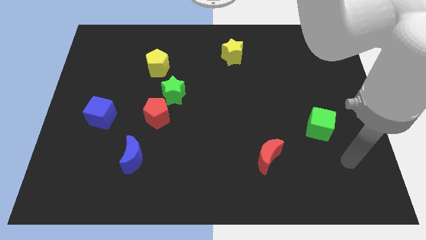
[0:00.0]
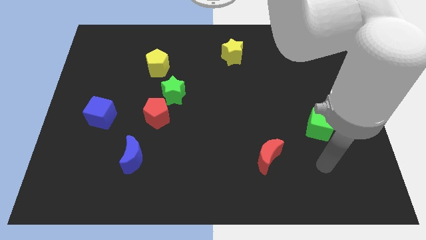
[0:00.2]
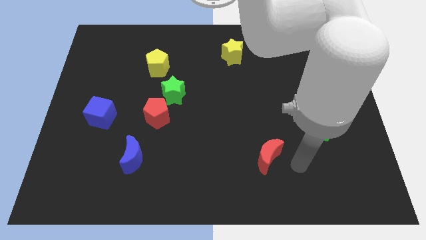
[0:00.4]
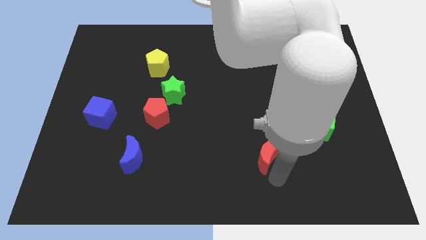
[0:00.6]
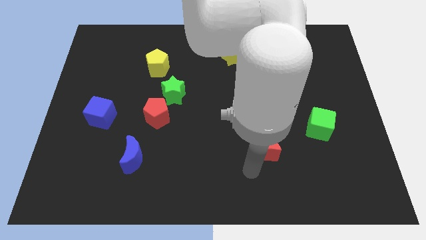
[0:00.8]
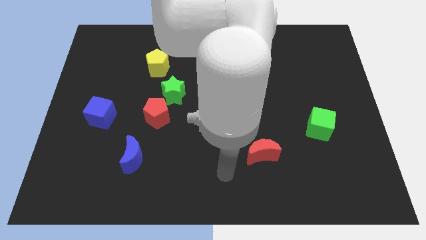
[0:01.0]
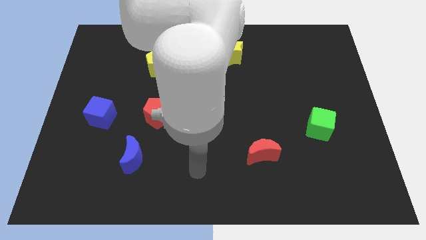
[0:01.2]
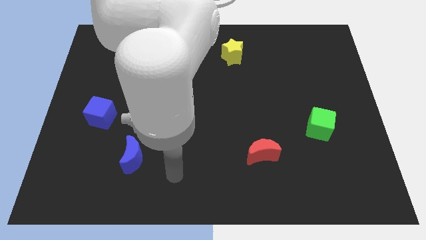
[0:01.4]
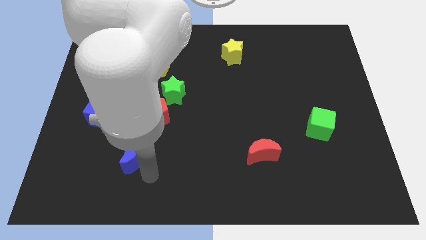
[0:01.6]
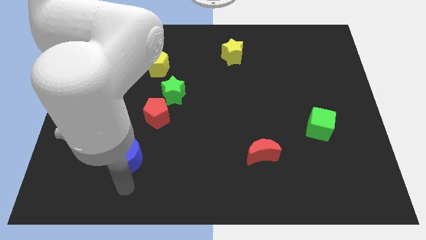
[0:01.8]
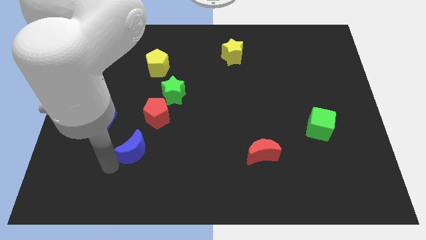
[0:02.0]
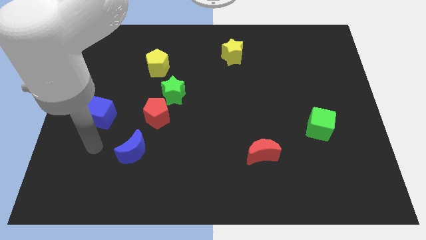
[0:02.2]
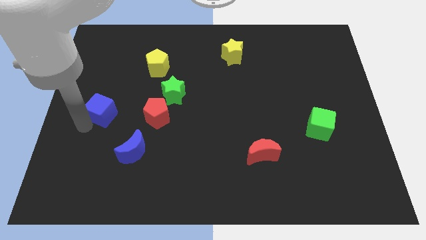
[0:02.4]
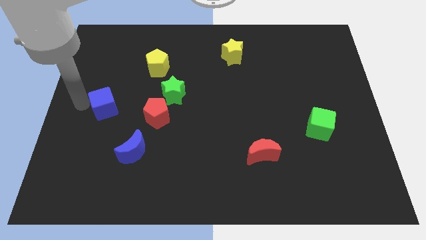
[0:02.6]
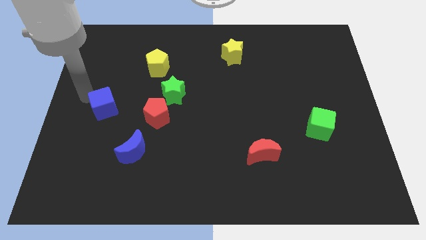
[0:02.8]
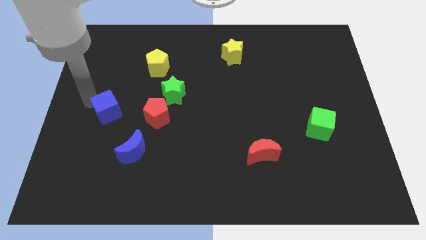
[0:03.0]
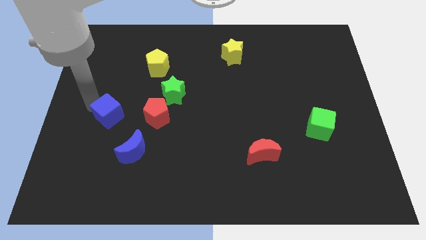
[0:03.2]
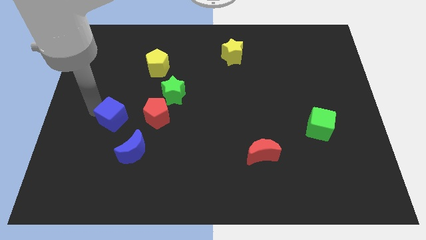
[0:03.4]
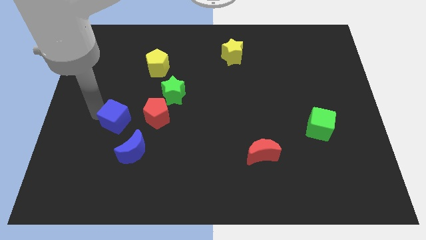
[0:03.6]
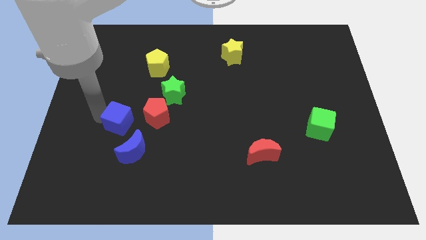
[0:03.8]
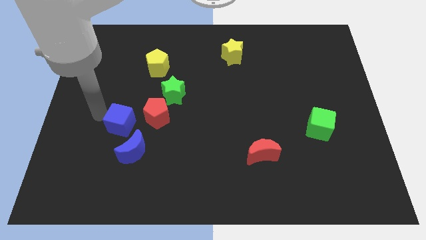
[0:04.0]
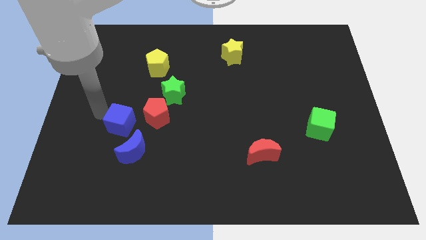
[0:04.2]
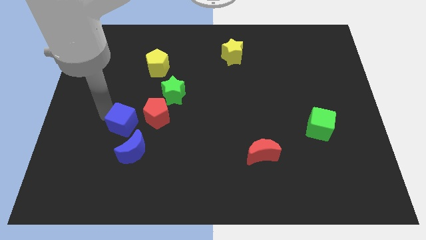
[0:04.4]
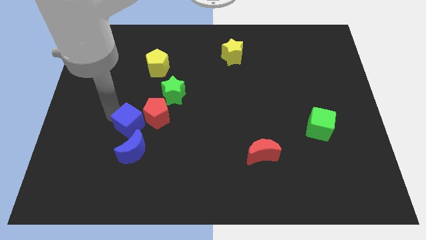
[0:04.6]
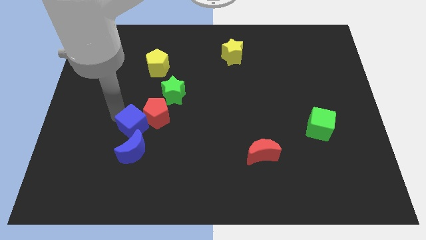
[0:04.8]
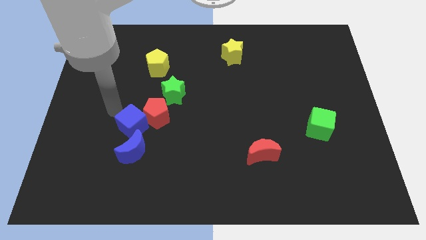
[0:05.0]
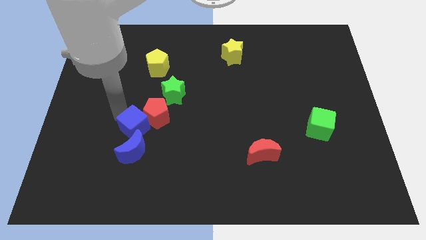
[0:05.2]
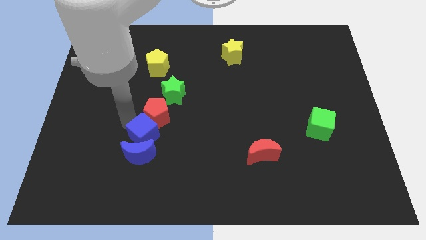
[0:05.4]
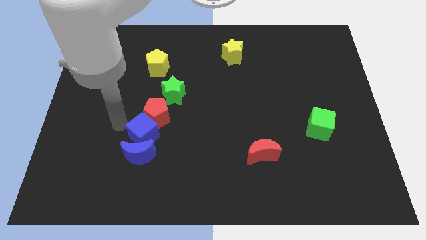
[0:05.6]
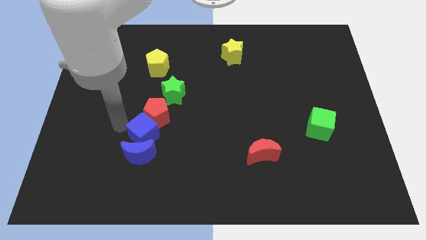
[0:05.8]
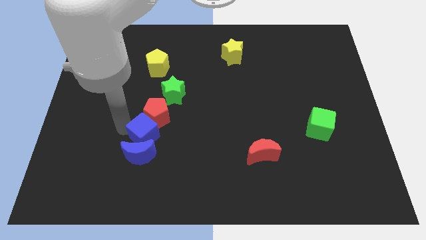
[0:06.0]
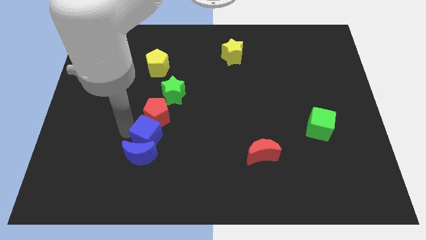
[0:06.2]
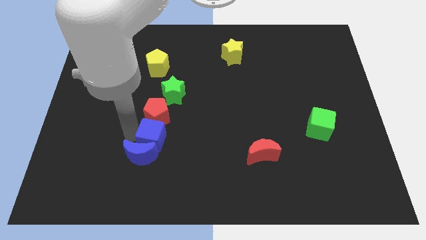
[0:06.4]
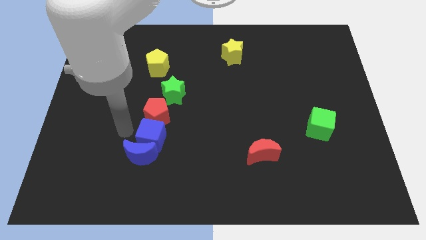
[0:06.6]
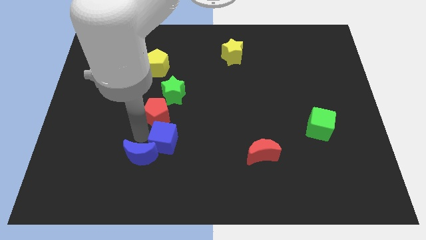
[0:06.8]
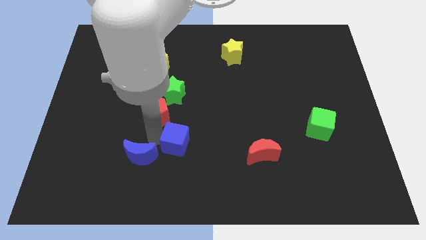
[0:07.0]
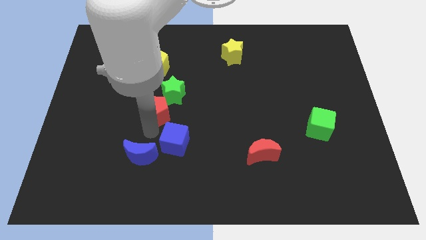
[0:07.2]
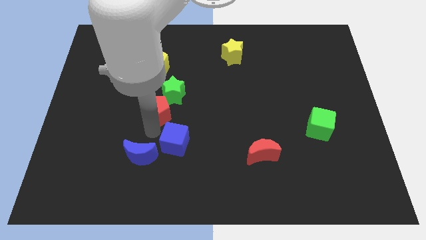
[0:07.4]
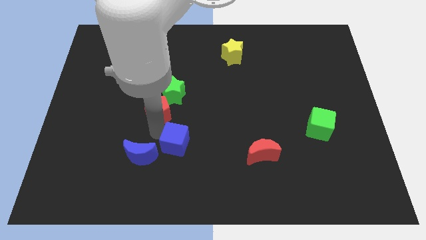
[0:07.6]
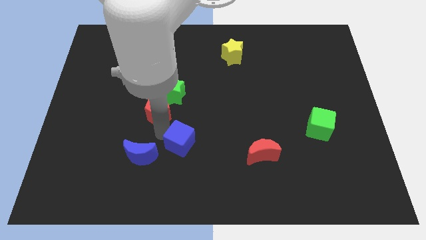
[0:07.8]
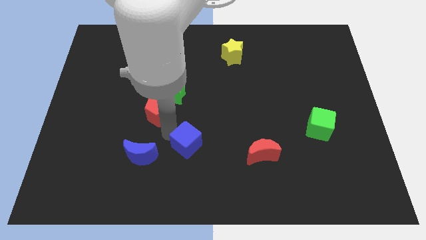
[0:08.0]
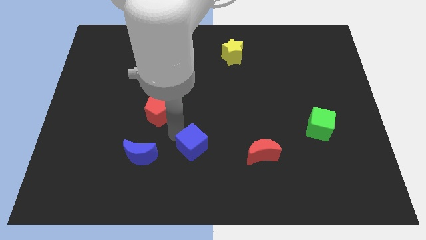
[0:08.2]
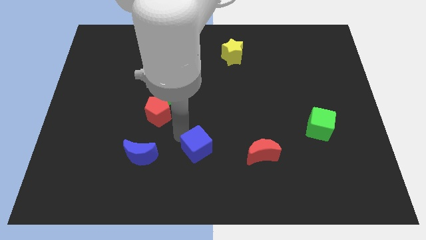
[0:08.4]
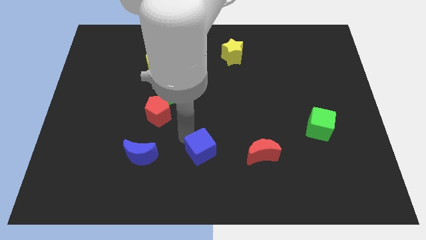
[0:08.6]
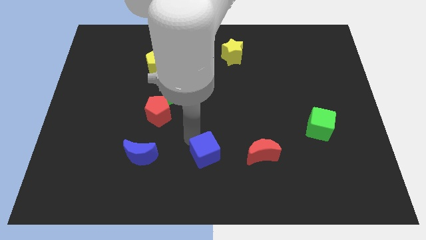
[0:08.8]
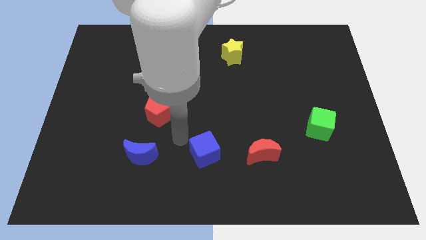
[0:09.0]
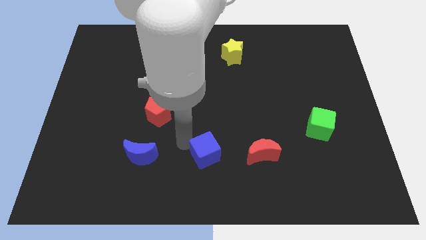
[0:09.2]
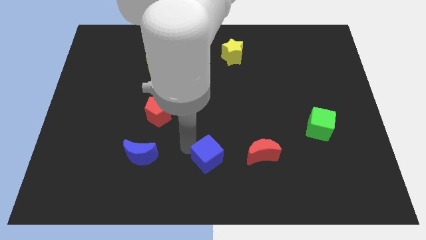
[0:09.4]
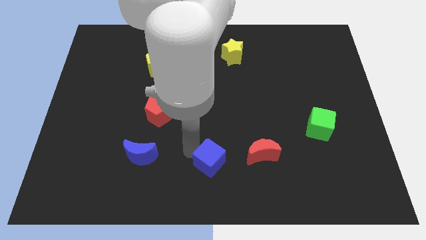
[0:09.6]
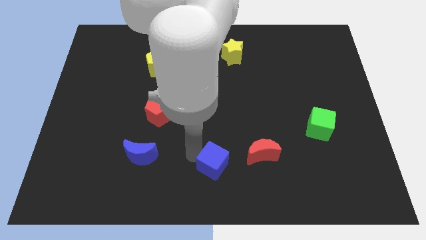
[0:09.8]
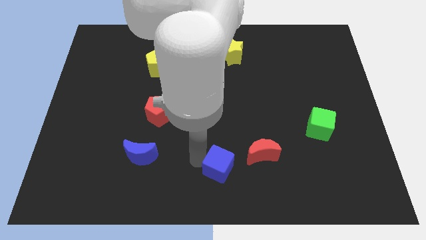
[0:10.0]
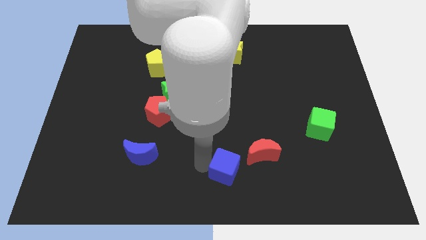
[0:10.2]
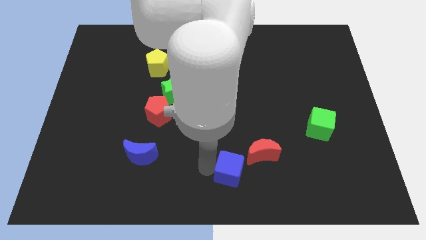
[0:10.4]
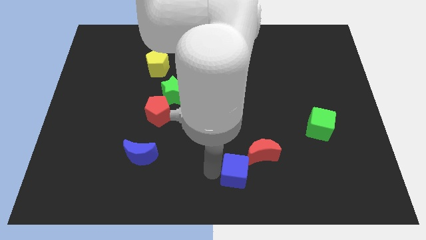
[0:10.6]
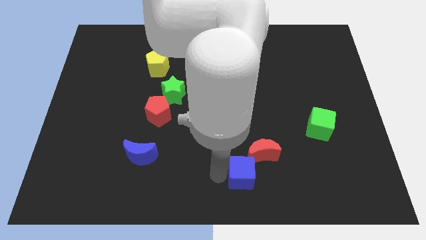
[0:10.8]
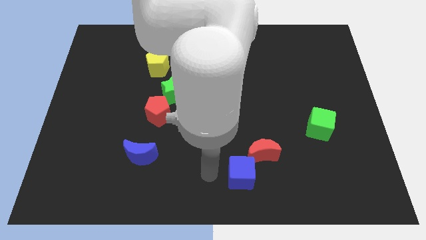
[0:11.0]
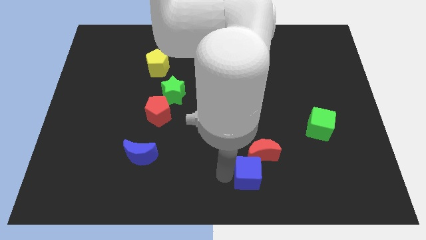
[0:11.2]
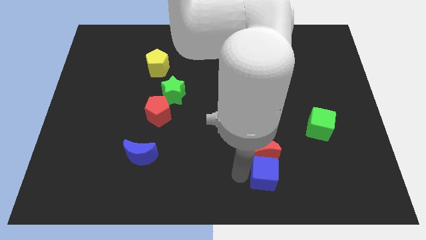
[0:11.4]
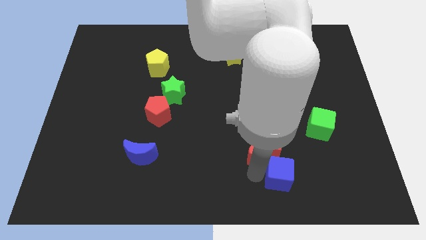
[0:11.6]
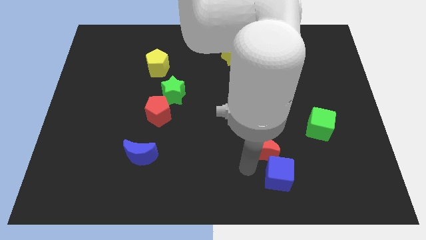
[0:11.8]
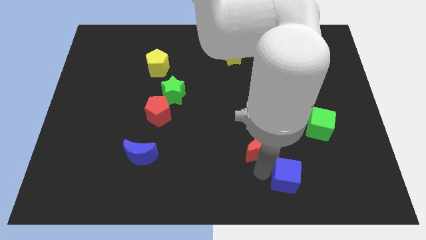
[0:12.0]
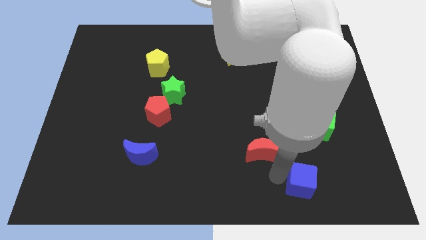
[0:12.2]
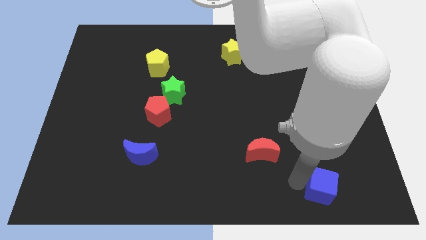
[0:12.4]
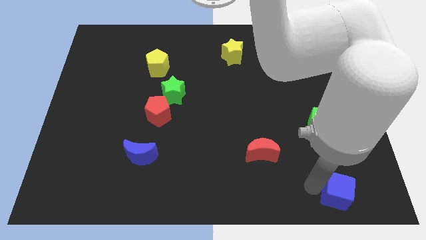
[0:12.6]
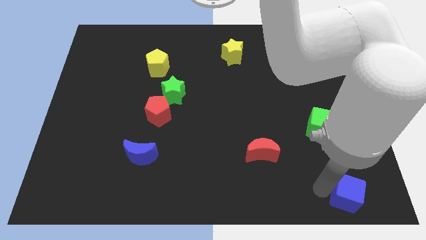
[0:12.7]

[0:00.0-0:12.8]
move the blue cube to the bottom right corner

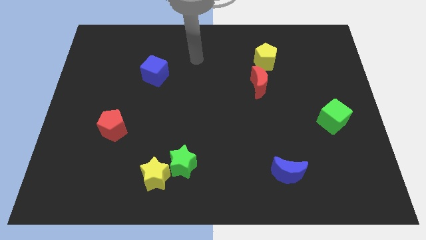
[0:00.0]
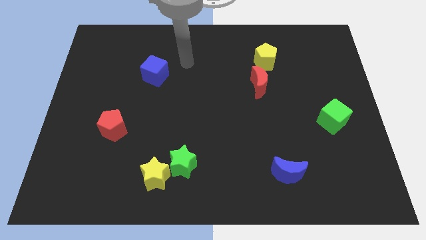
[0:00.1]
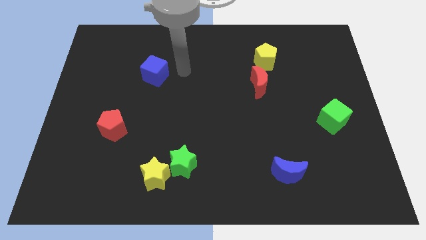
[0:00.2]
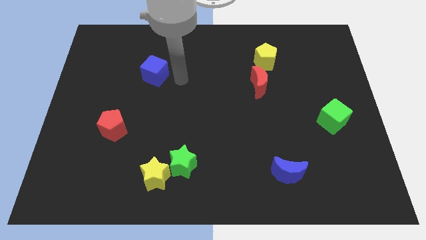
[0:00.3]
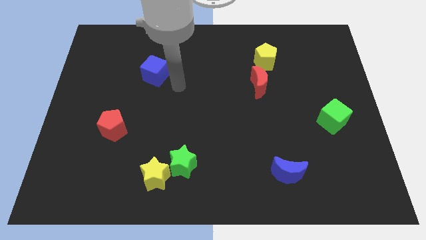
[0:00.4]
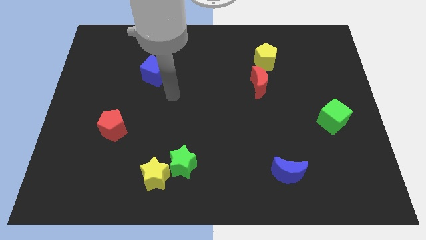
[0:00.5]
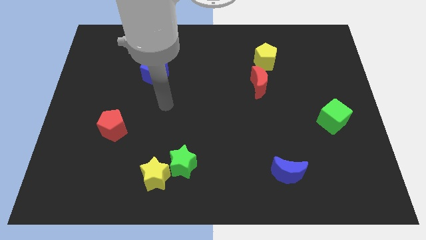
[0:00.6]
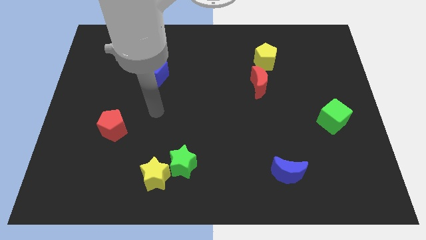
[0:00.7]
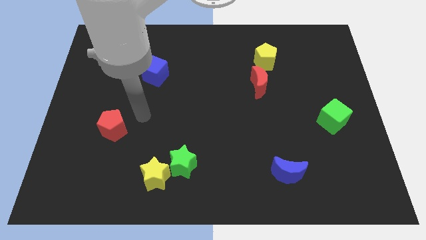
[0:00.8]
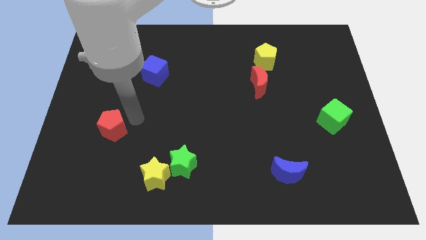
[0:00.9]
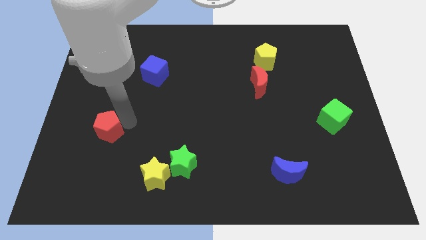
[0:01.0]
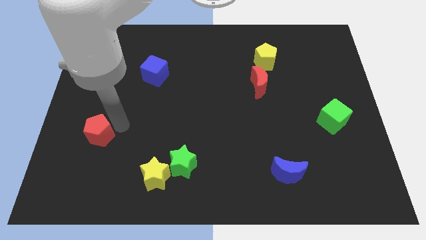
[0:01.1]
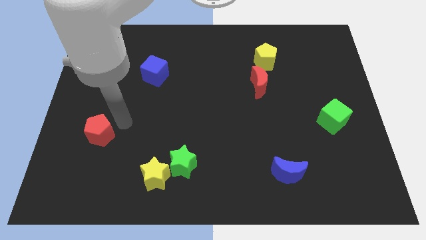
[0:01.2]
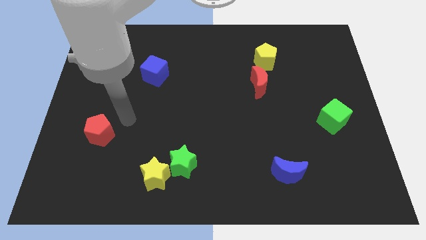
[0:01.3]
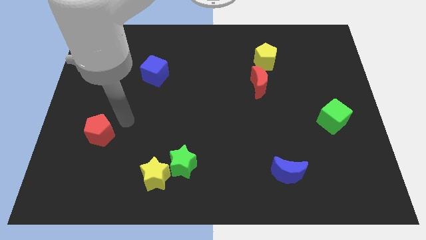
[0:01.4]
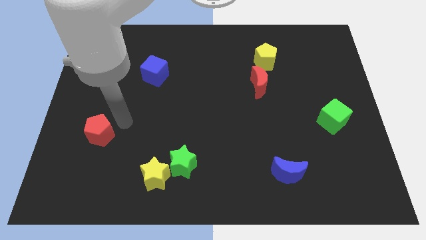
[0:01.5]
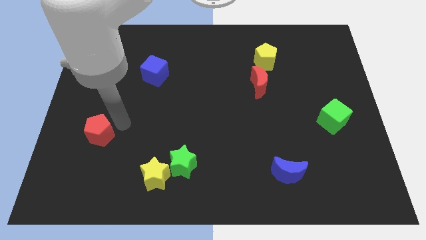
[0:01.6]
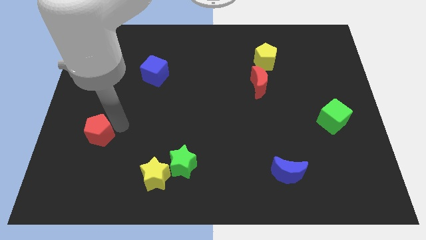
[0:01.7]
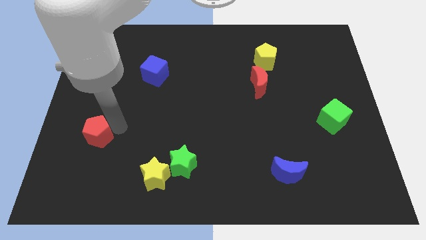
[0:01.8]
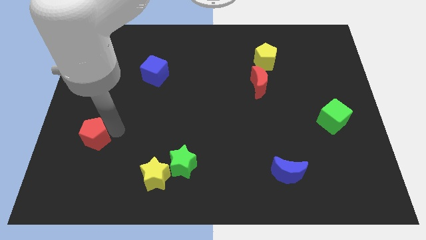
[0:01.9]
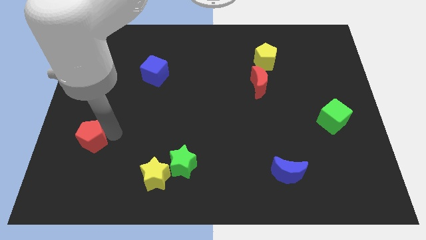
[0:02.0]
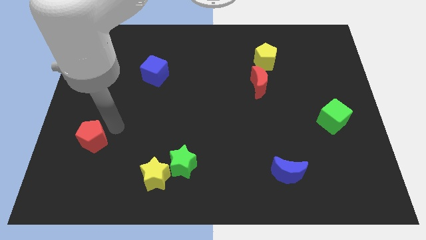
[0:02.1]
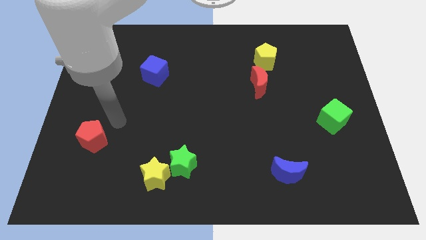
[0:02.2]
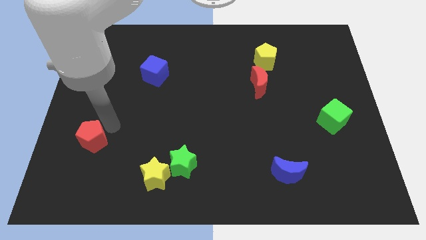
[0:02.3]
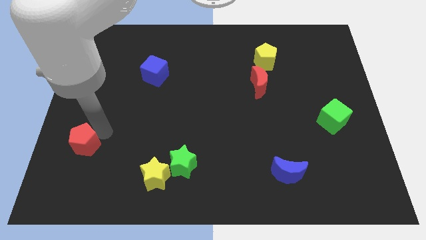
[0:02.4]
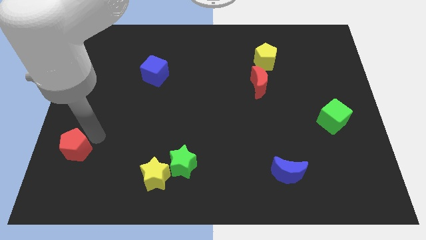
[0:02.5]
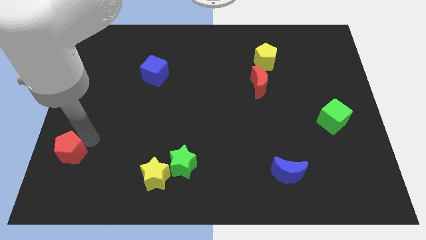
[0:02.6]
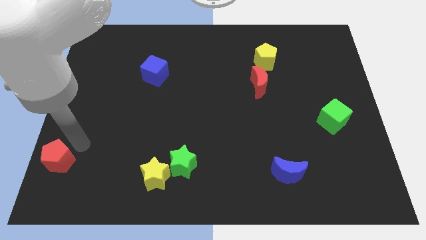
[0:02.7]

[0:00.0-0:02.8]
slide the red pentagon to the bottom left
